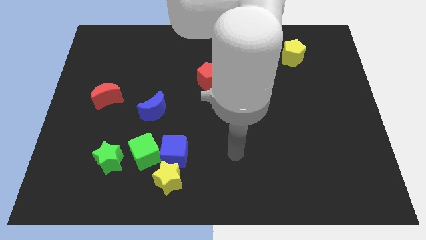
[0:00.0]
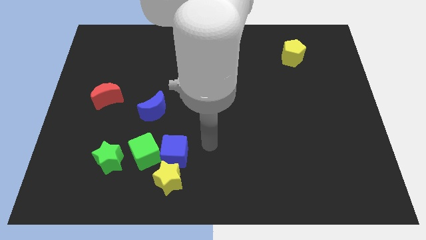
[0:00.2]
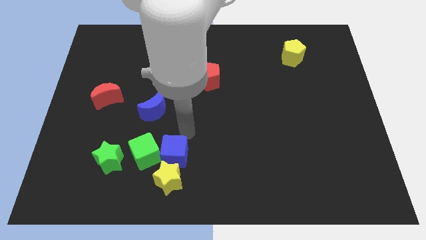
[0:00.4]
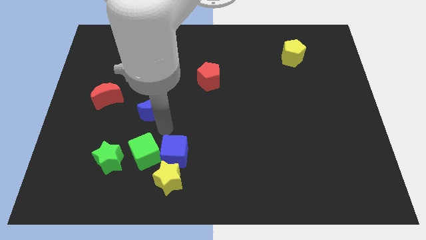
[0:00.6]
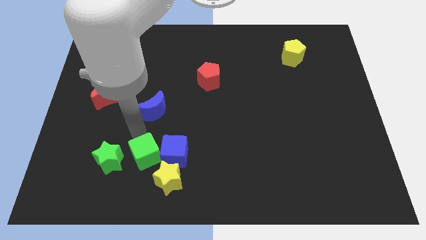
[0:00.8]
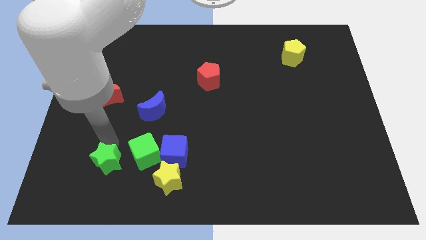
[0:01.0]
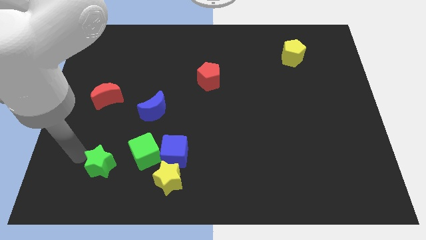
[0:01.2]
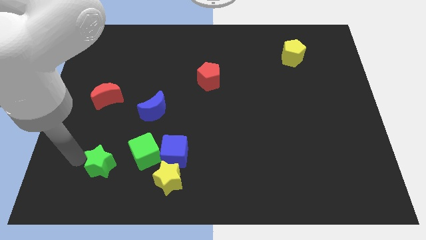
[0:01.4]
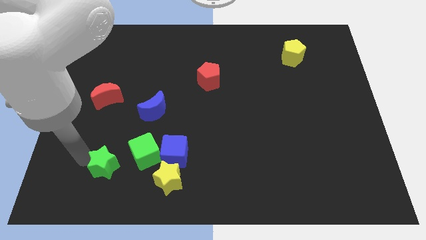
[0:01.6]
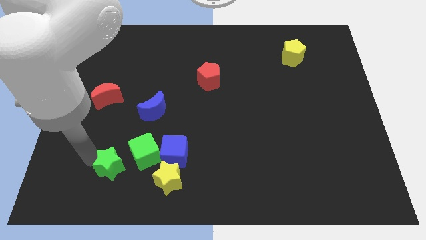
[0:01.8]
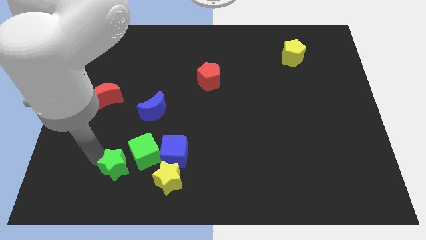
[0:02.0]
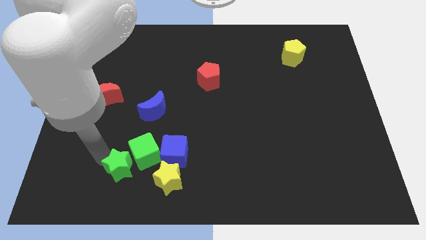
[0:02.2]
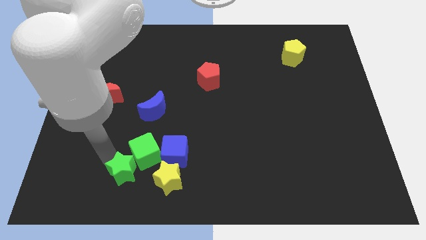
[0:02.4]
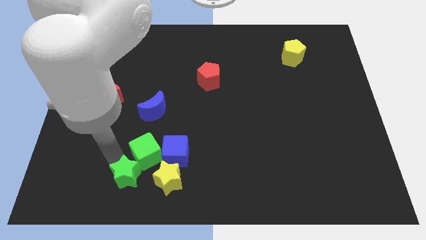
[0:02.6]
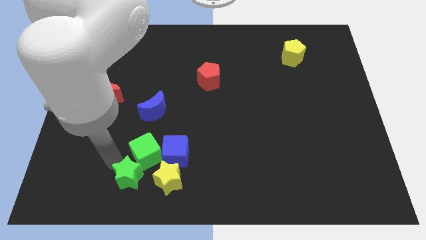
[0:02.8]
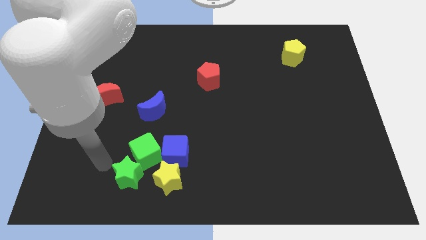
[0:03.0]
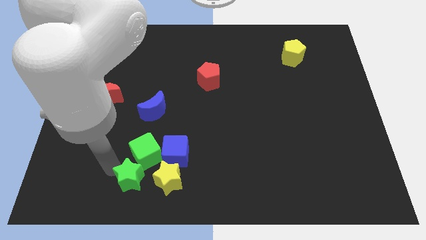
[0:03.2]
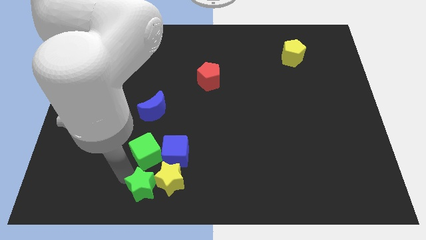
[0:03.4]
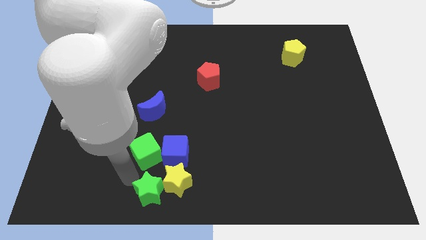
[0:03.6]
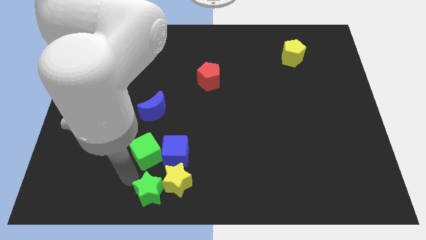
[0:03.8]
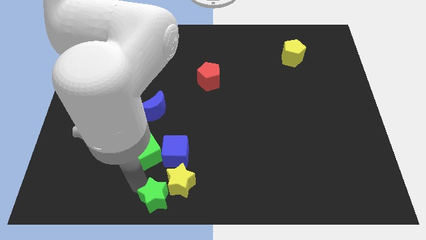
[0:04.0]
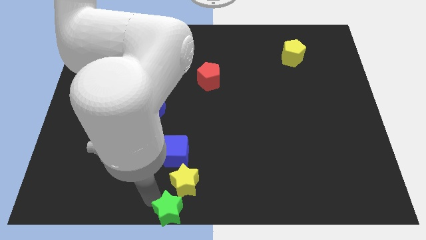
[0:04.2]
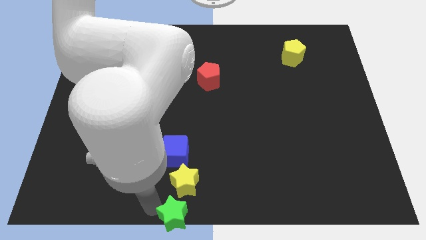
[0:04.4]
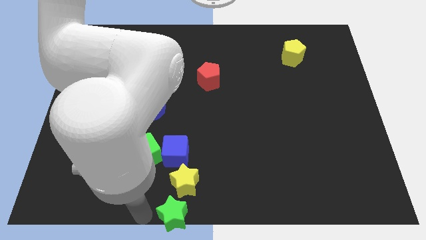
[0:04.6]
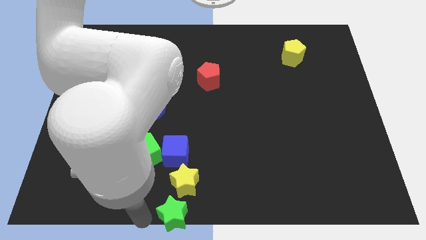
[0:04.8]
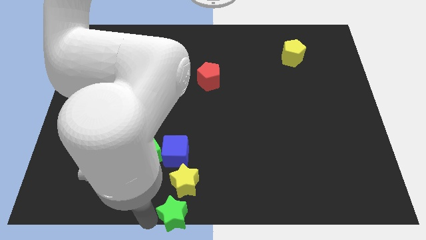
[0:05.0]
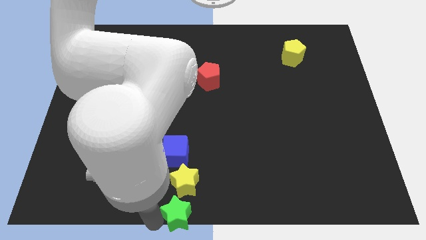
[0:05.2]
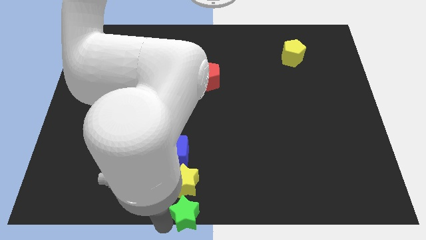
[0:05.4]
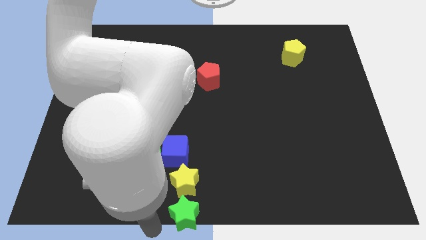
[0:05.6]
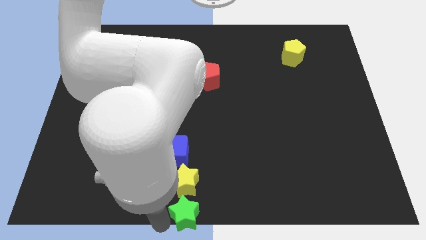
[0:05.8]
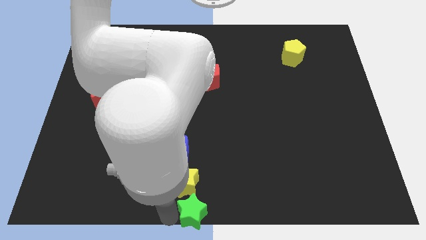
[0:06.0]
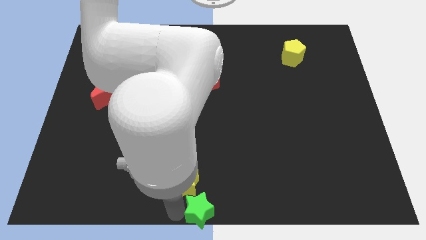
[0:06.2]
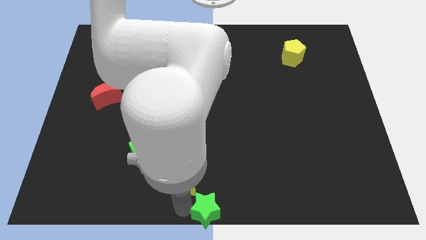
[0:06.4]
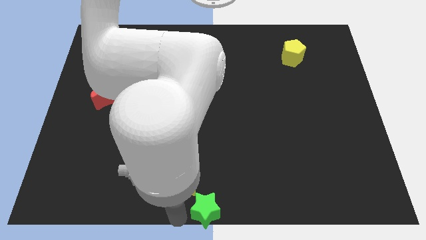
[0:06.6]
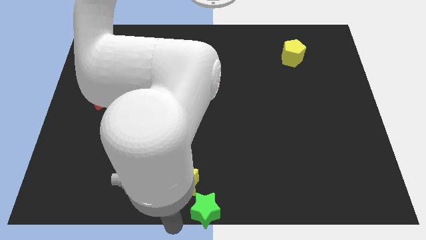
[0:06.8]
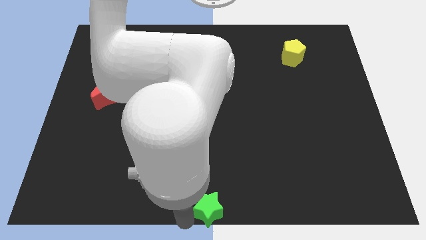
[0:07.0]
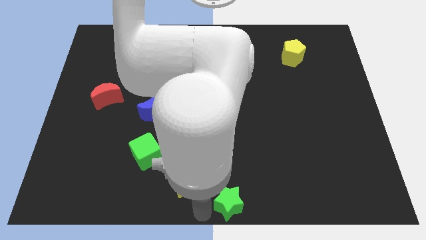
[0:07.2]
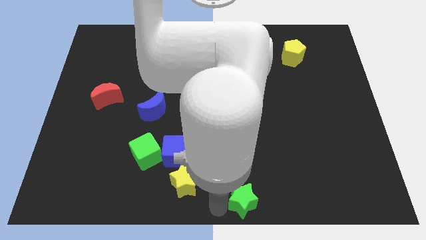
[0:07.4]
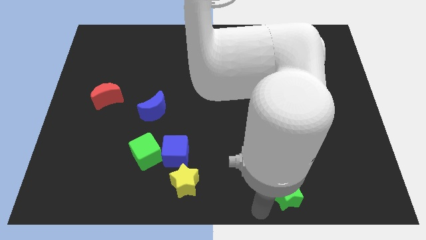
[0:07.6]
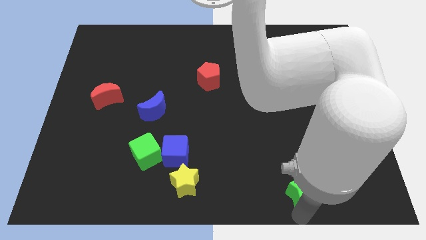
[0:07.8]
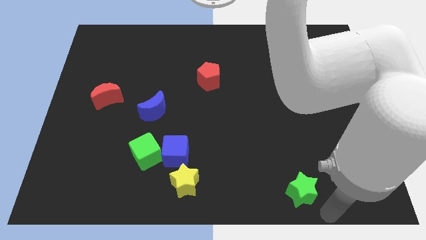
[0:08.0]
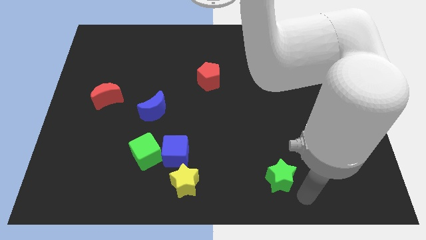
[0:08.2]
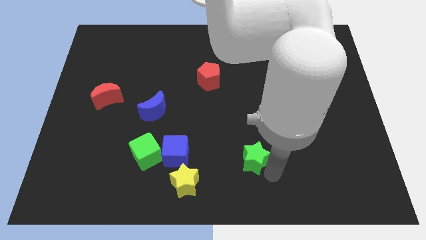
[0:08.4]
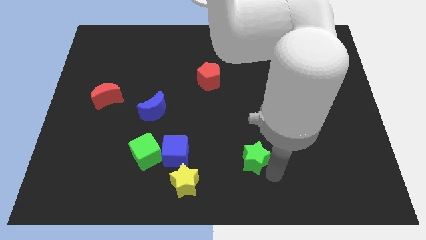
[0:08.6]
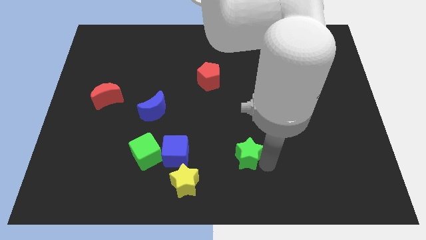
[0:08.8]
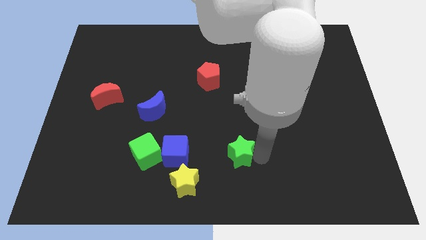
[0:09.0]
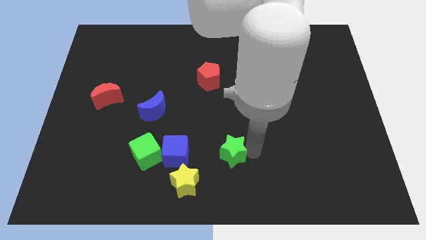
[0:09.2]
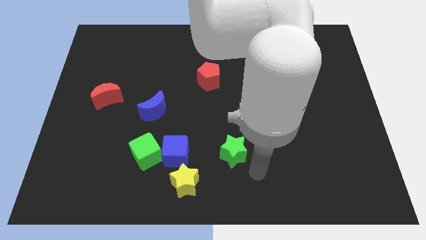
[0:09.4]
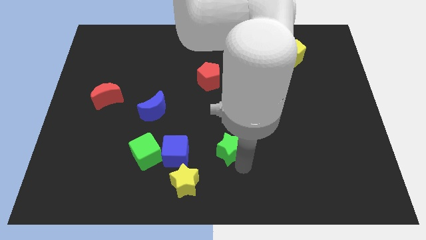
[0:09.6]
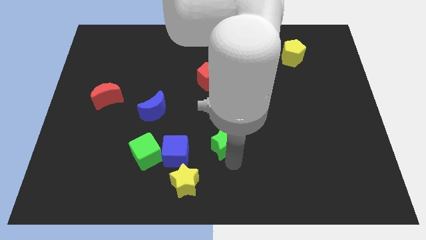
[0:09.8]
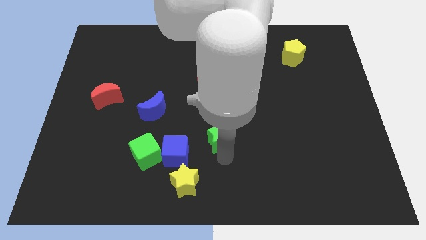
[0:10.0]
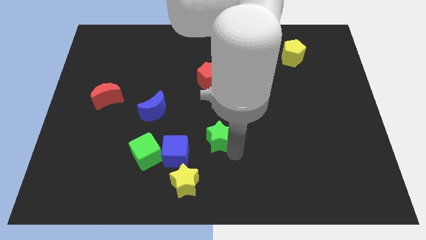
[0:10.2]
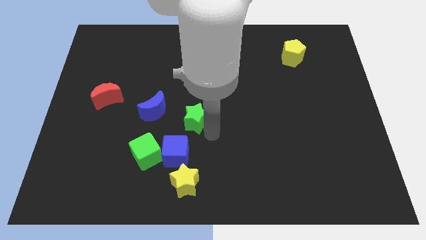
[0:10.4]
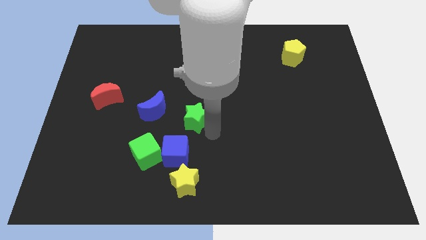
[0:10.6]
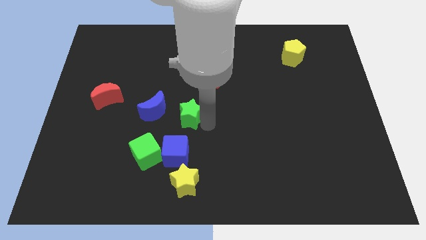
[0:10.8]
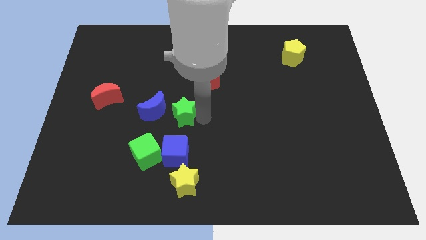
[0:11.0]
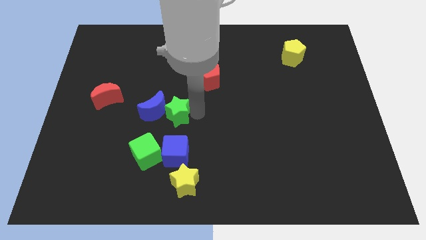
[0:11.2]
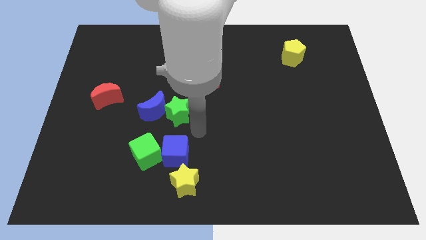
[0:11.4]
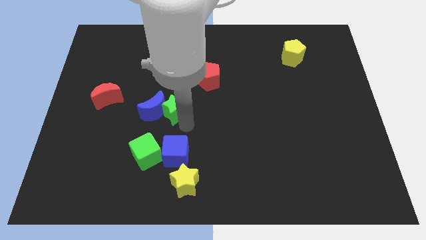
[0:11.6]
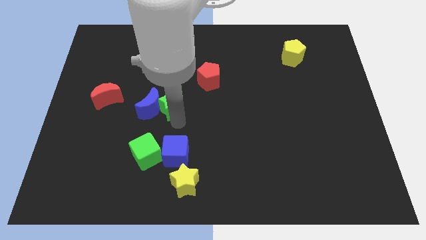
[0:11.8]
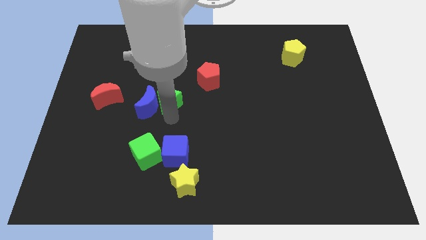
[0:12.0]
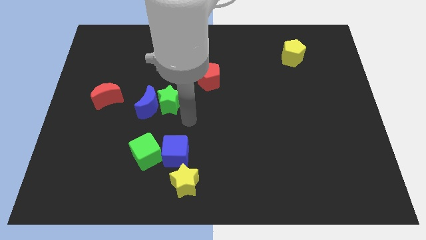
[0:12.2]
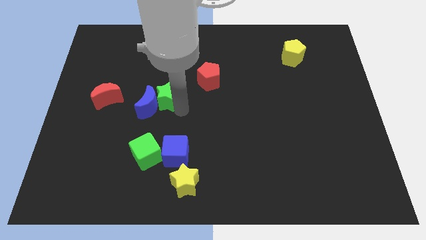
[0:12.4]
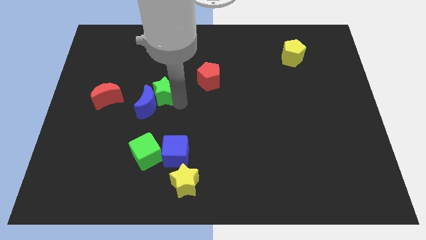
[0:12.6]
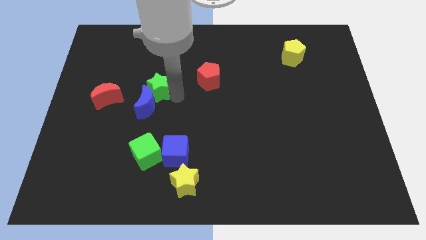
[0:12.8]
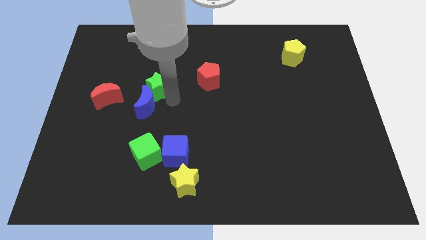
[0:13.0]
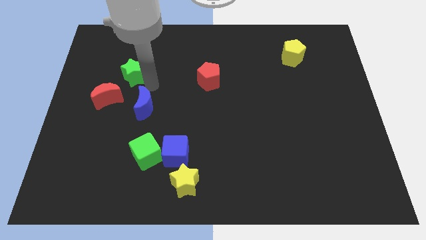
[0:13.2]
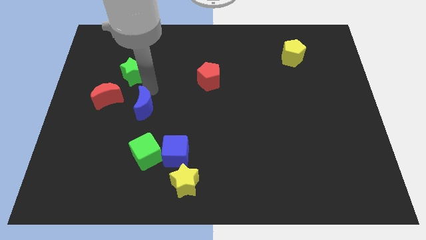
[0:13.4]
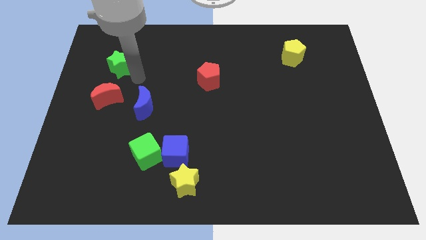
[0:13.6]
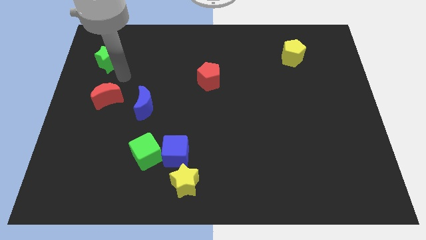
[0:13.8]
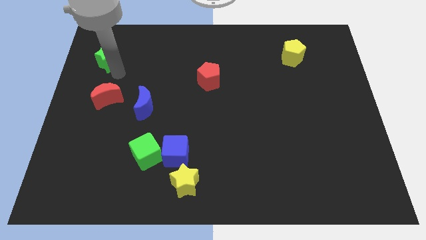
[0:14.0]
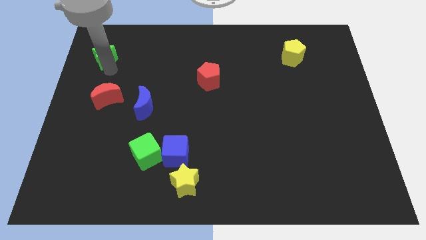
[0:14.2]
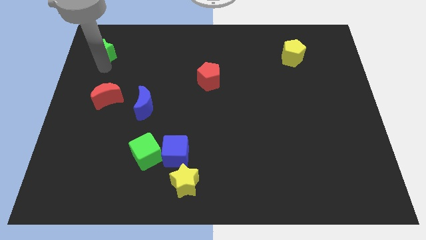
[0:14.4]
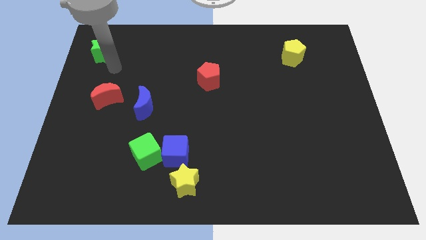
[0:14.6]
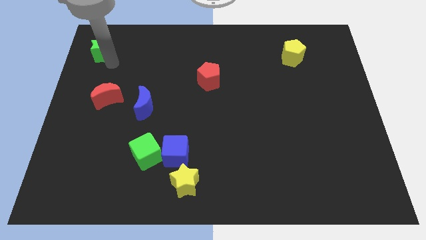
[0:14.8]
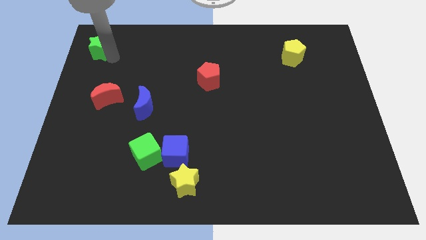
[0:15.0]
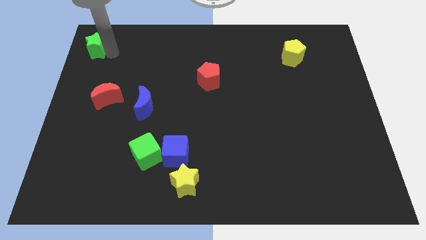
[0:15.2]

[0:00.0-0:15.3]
move the green star to the top left
